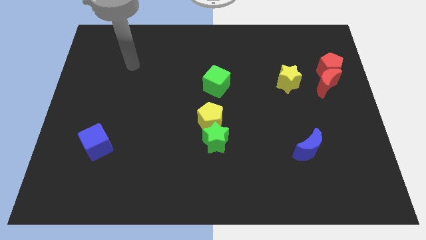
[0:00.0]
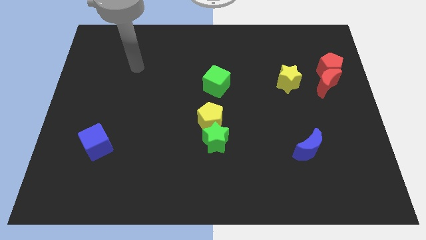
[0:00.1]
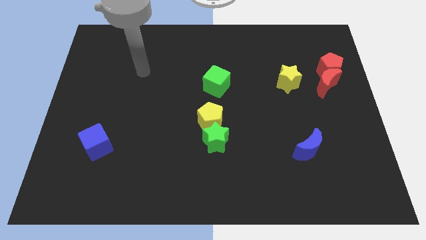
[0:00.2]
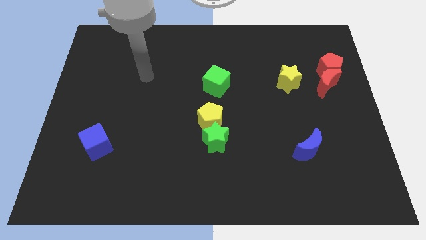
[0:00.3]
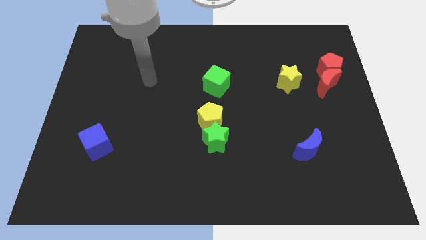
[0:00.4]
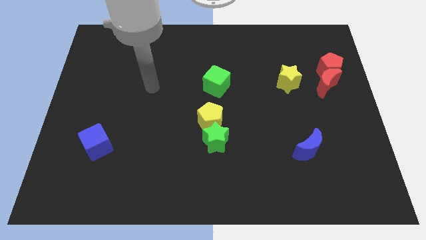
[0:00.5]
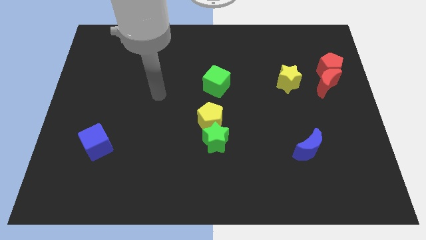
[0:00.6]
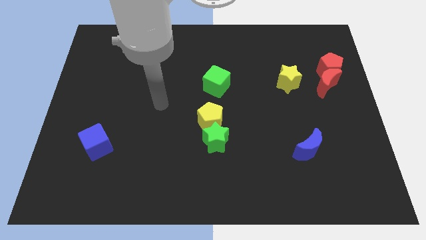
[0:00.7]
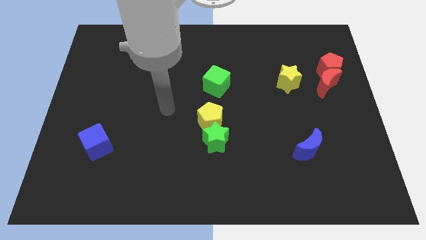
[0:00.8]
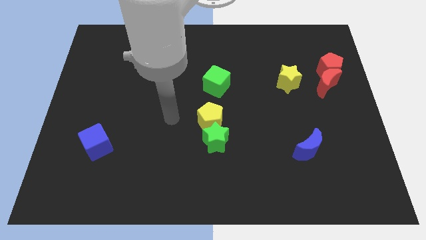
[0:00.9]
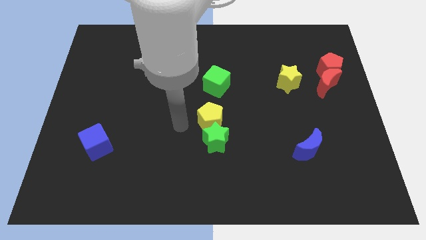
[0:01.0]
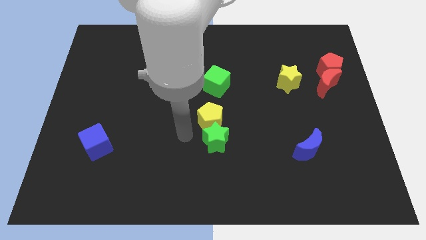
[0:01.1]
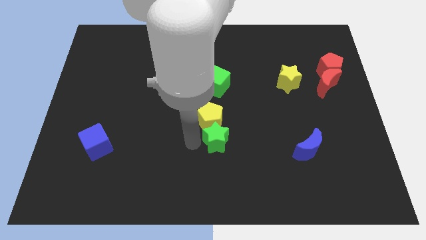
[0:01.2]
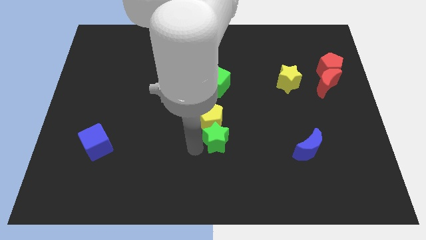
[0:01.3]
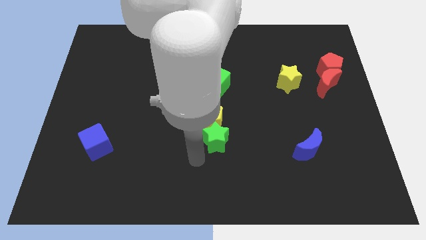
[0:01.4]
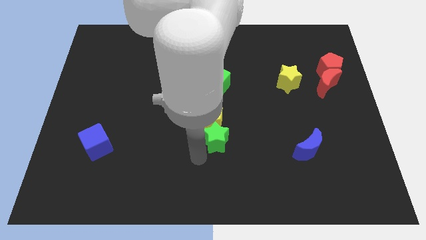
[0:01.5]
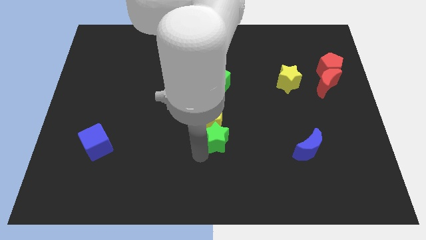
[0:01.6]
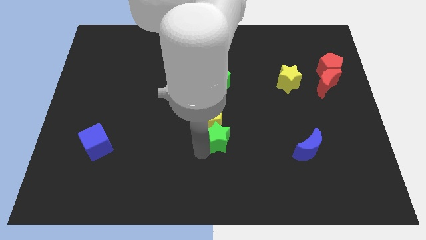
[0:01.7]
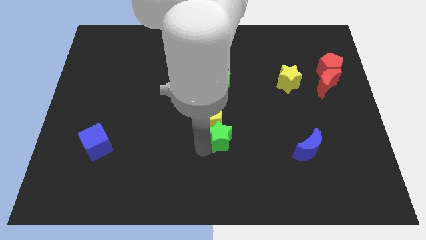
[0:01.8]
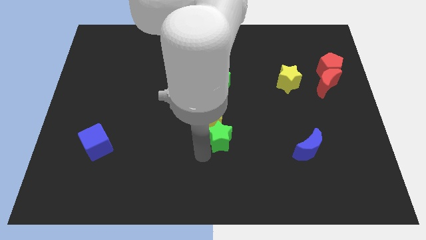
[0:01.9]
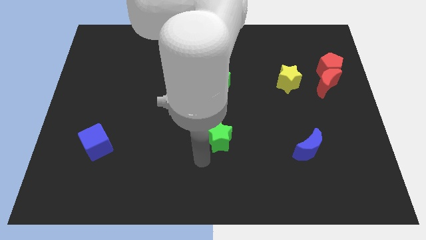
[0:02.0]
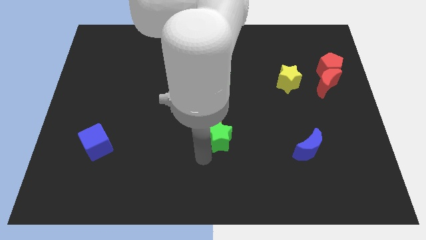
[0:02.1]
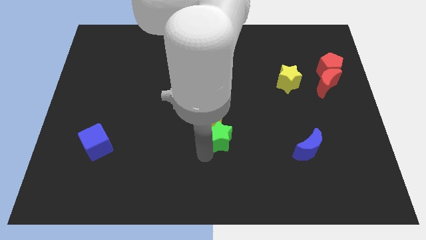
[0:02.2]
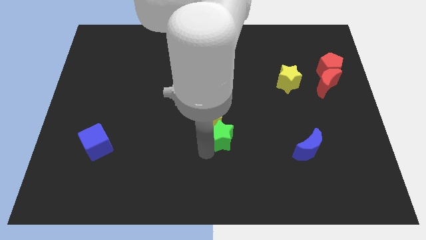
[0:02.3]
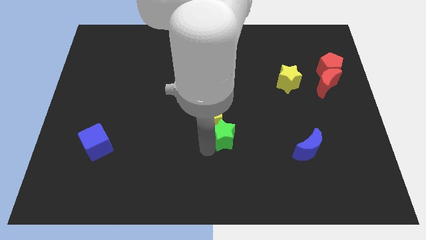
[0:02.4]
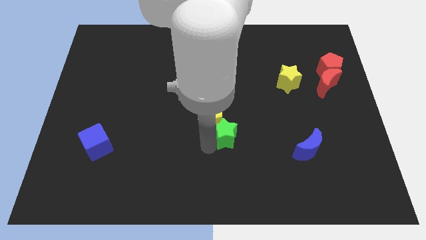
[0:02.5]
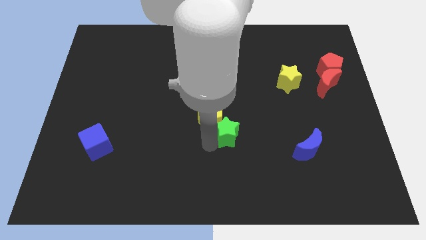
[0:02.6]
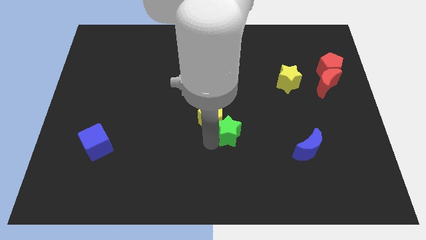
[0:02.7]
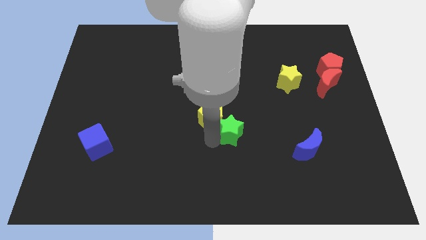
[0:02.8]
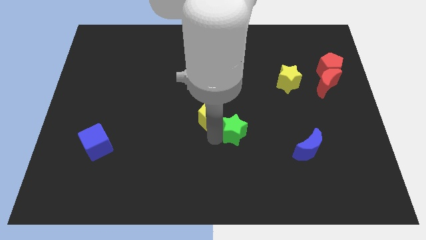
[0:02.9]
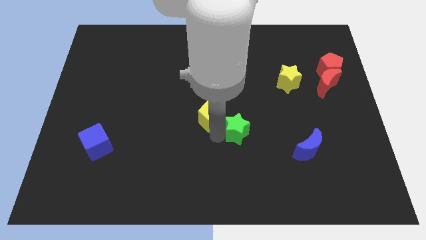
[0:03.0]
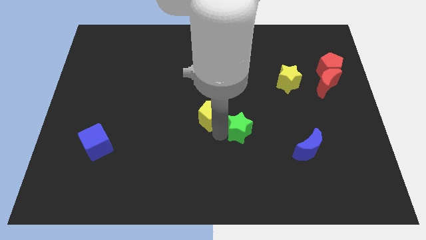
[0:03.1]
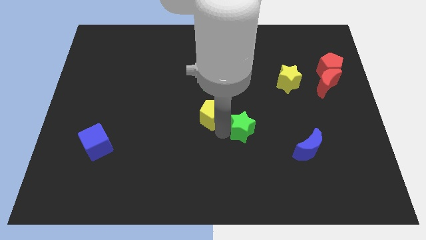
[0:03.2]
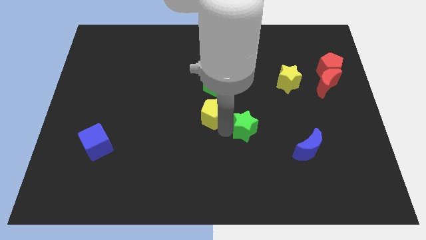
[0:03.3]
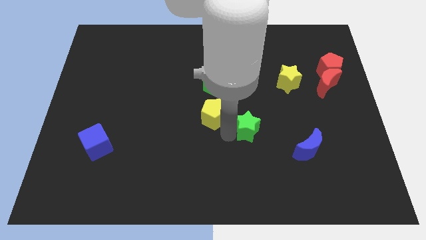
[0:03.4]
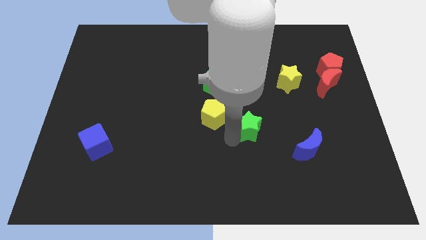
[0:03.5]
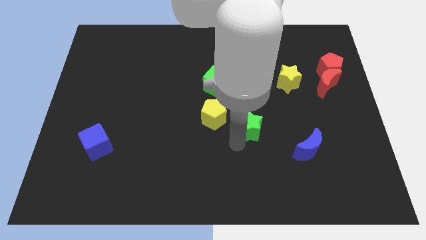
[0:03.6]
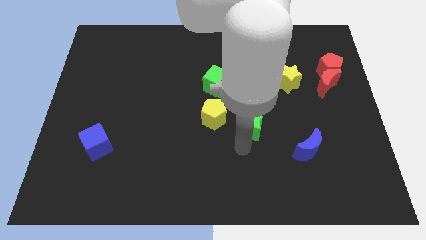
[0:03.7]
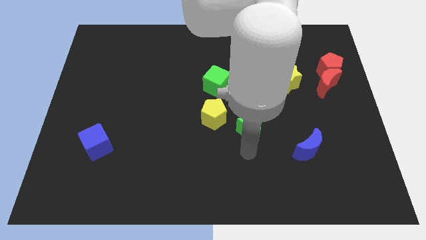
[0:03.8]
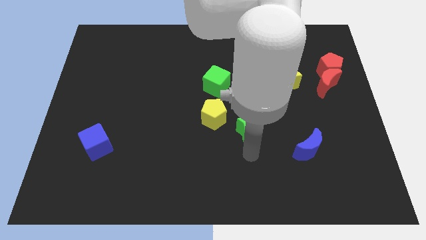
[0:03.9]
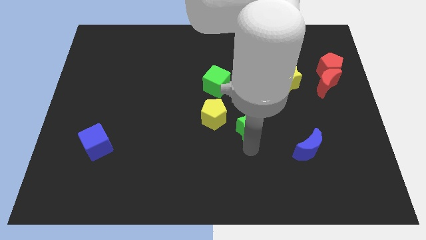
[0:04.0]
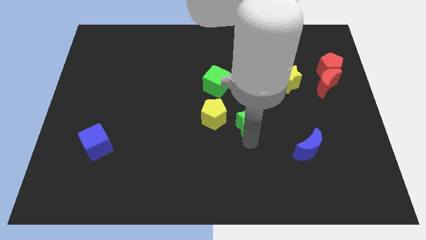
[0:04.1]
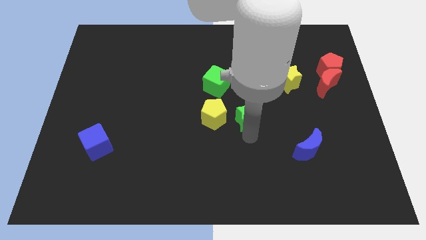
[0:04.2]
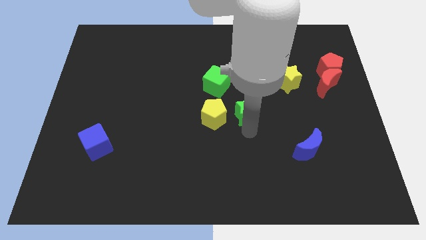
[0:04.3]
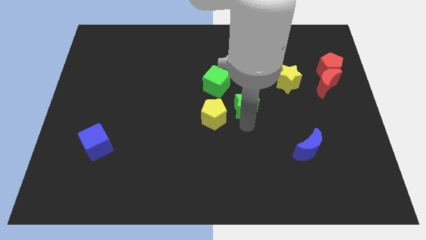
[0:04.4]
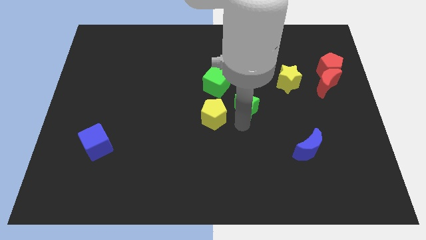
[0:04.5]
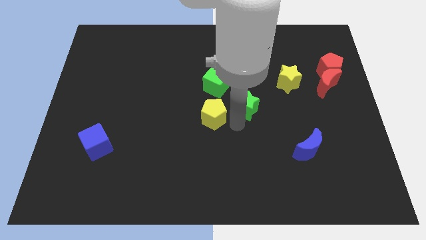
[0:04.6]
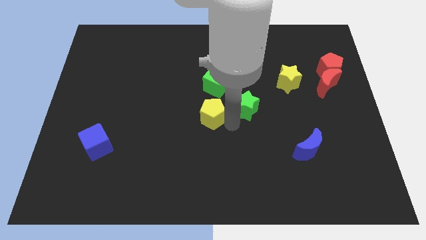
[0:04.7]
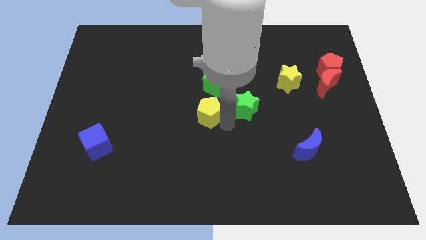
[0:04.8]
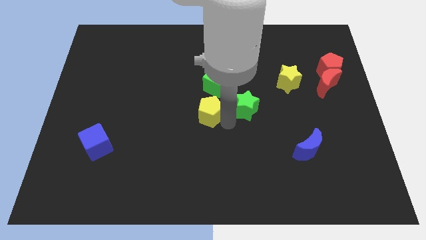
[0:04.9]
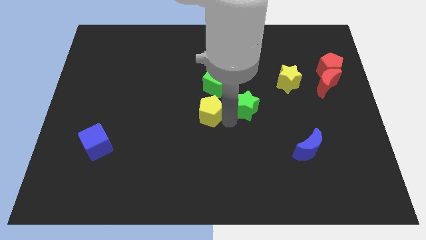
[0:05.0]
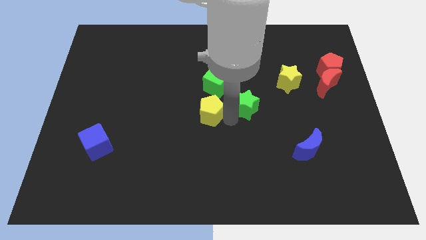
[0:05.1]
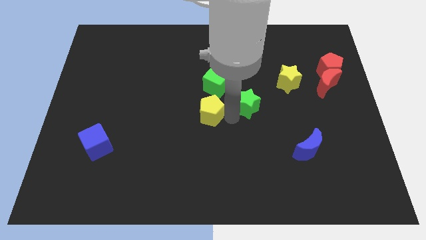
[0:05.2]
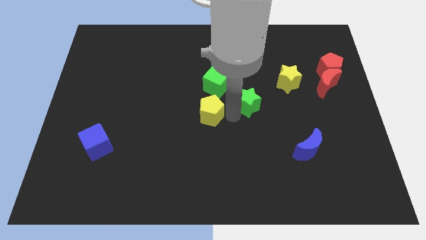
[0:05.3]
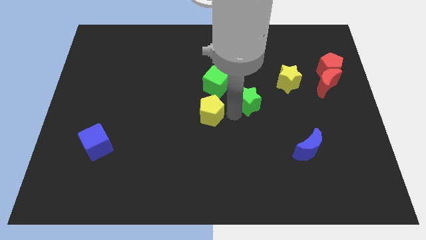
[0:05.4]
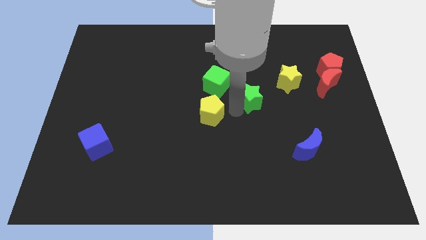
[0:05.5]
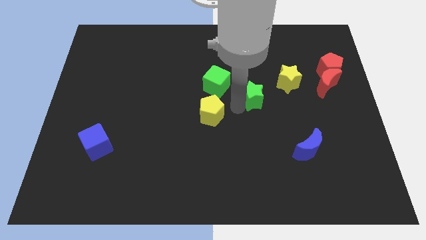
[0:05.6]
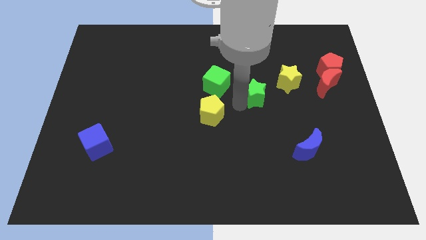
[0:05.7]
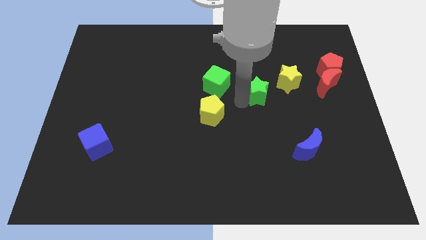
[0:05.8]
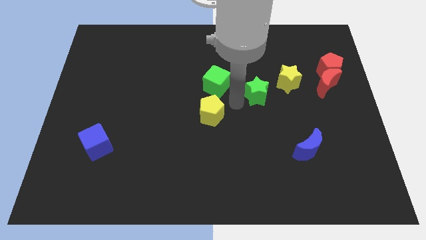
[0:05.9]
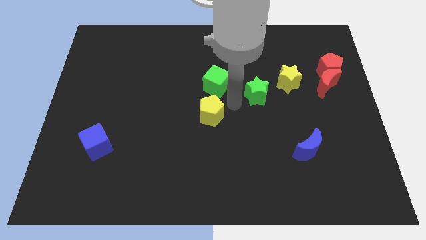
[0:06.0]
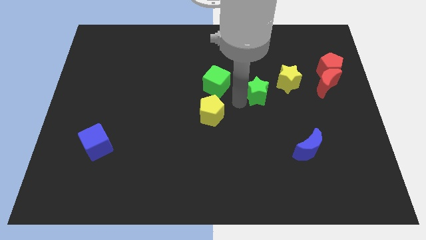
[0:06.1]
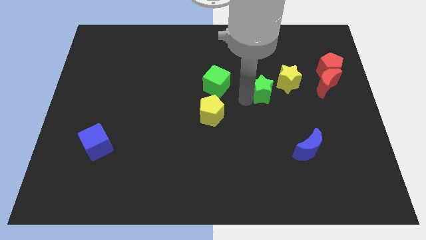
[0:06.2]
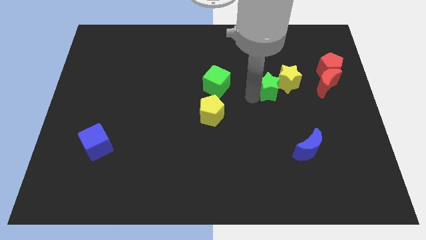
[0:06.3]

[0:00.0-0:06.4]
slide the green star to the left of the red moon

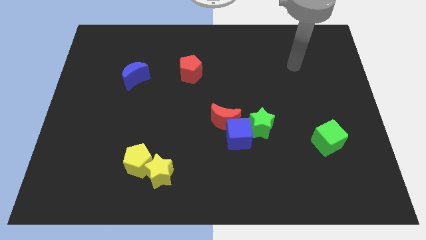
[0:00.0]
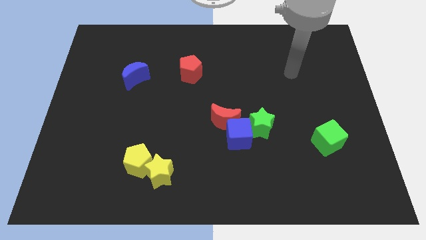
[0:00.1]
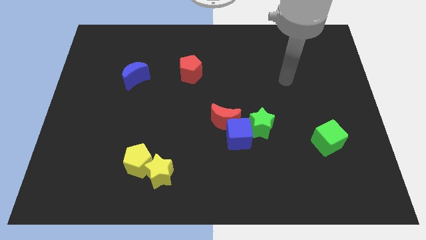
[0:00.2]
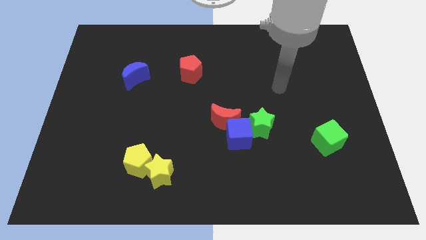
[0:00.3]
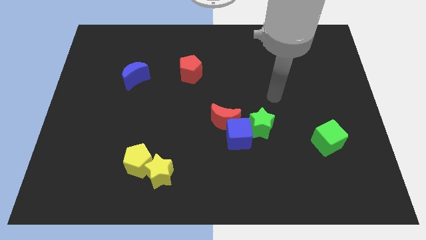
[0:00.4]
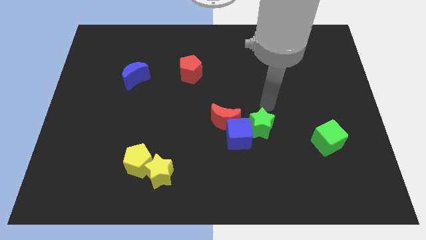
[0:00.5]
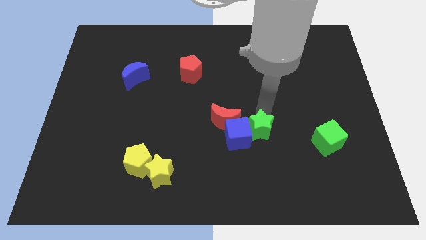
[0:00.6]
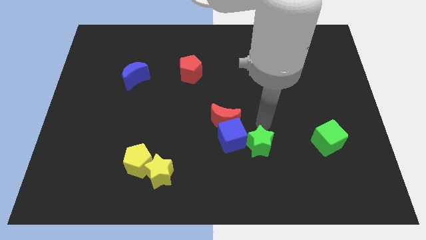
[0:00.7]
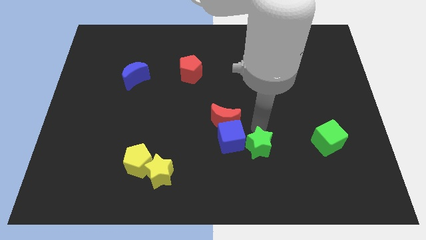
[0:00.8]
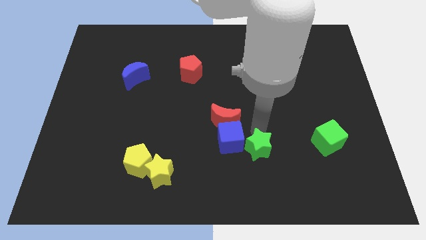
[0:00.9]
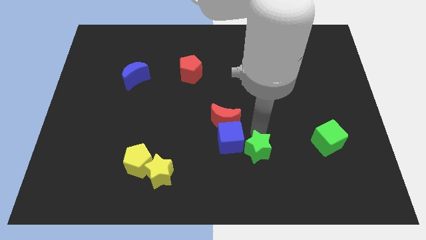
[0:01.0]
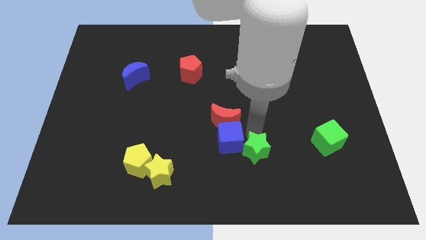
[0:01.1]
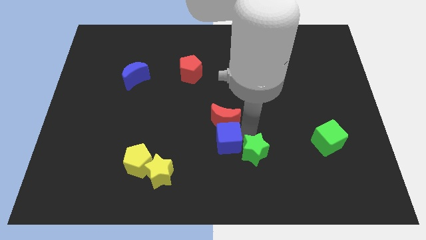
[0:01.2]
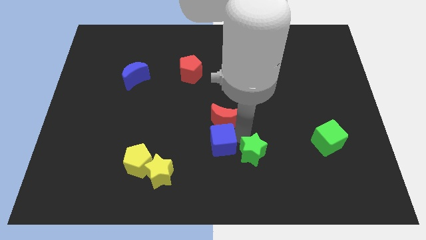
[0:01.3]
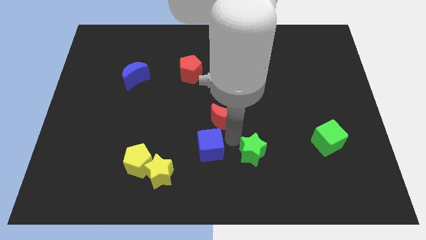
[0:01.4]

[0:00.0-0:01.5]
slide the blue cube to the top right side of the yellow star
